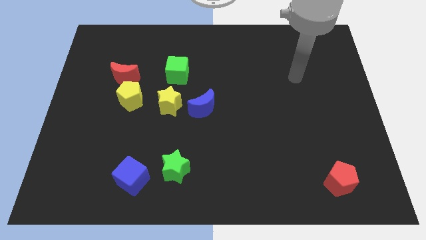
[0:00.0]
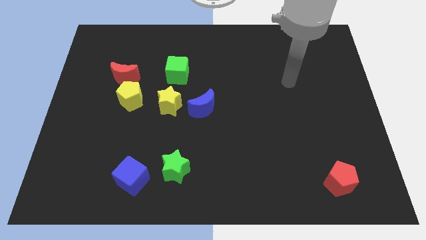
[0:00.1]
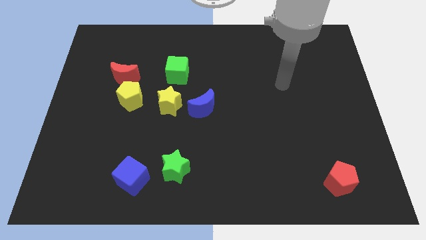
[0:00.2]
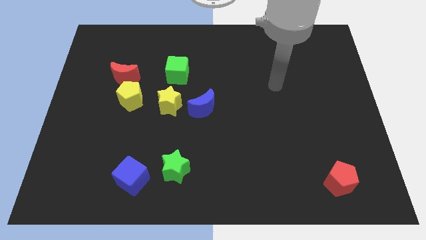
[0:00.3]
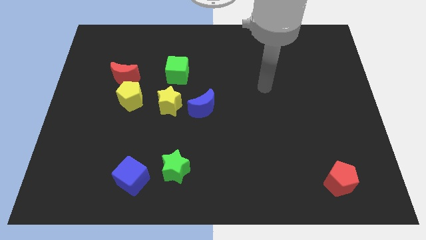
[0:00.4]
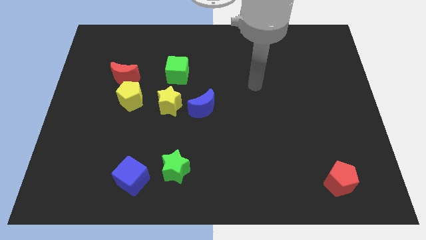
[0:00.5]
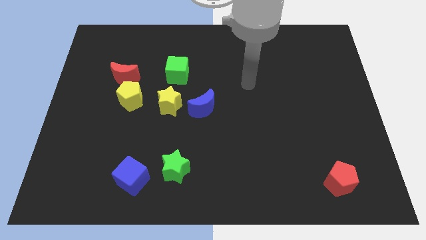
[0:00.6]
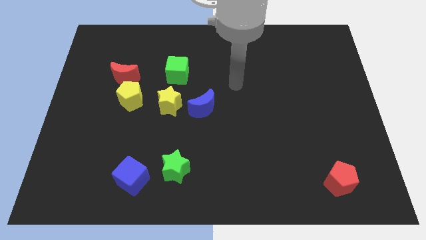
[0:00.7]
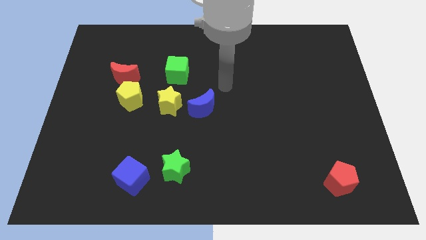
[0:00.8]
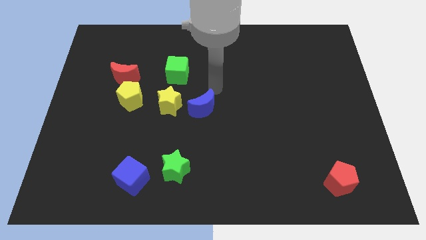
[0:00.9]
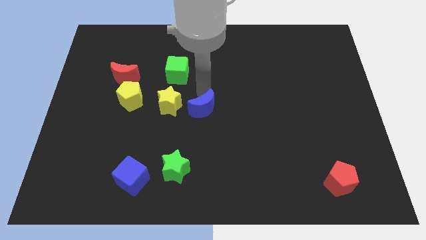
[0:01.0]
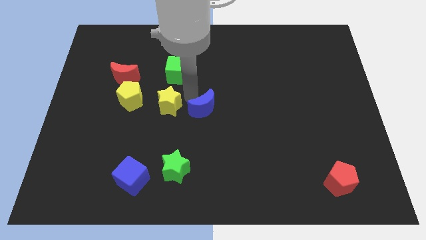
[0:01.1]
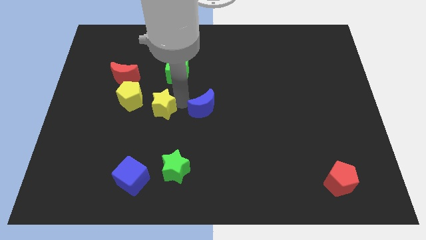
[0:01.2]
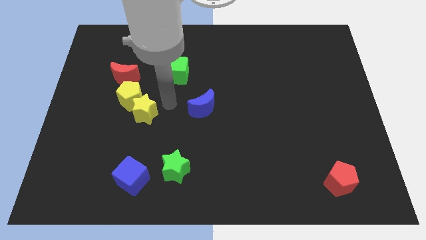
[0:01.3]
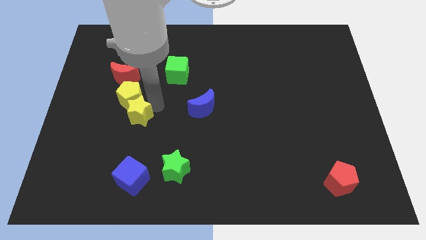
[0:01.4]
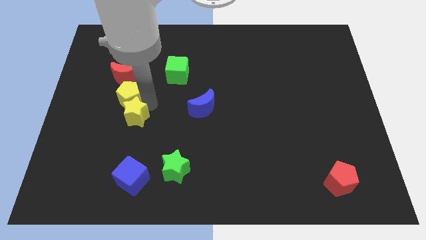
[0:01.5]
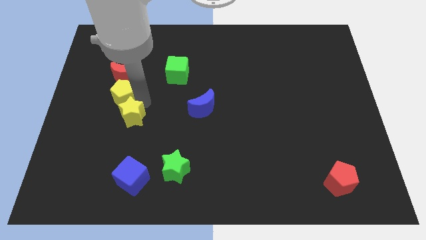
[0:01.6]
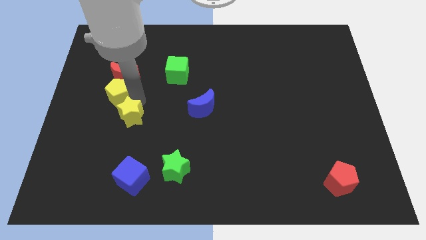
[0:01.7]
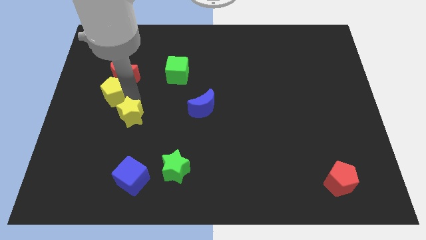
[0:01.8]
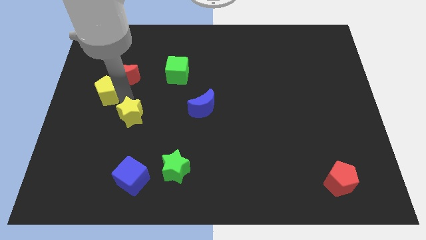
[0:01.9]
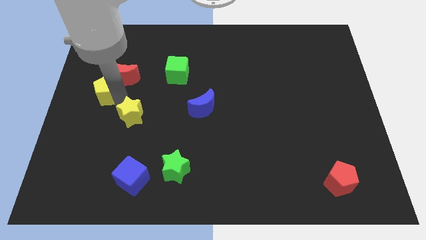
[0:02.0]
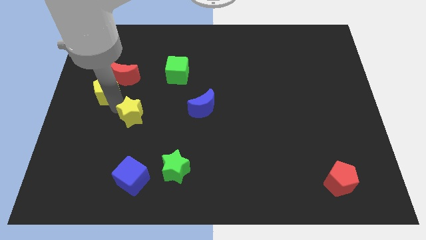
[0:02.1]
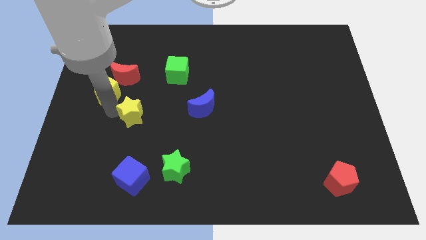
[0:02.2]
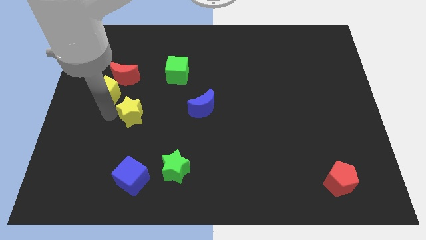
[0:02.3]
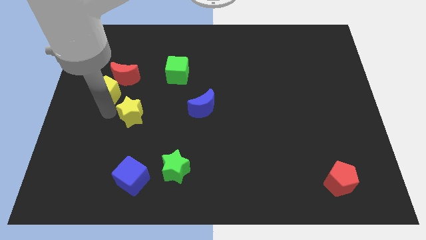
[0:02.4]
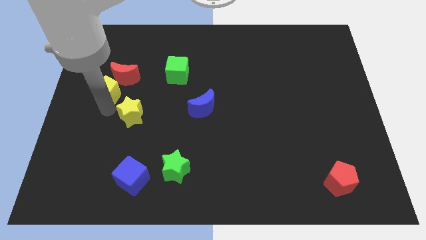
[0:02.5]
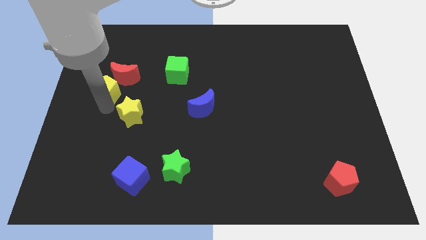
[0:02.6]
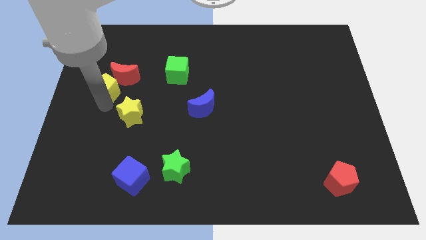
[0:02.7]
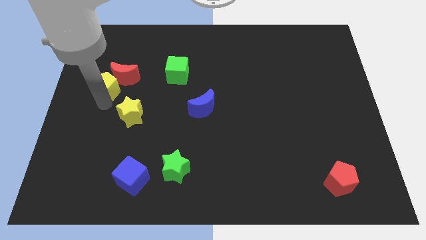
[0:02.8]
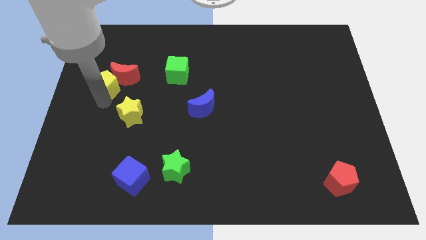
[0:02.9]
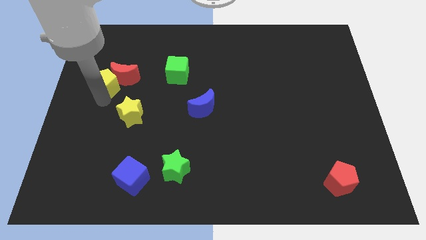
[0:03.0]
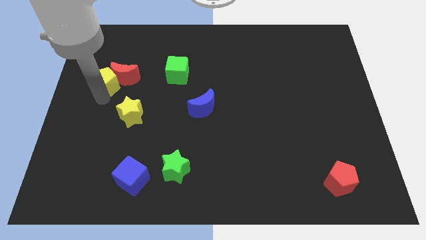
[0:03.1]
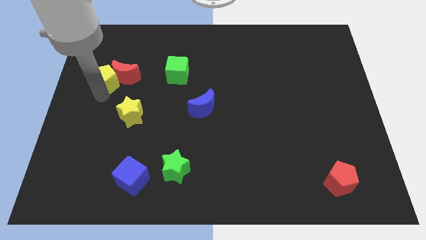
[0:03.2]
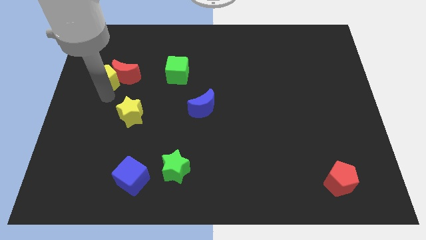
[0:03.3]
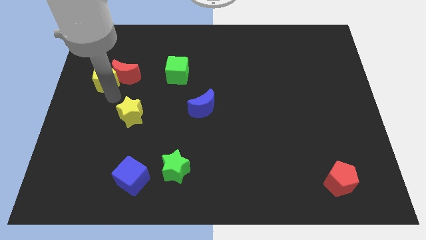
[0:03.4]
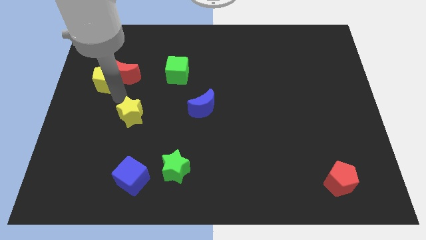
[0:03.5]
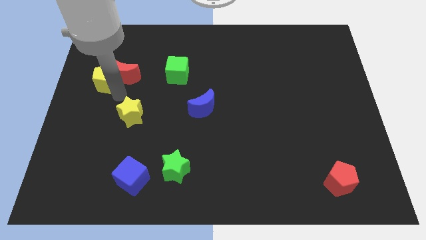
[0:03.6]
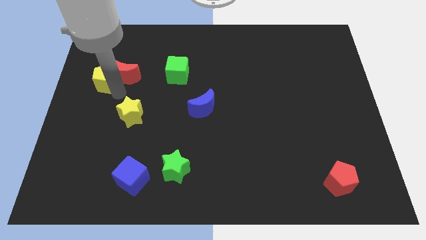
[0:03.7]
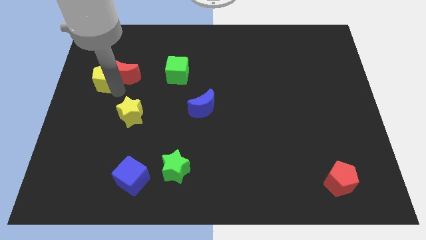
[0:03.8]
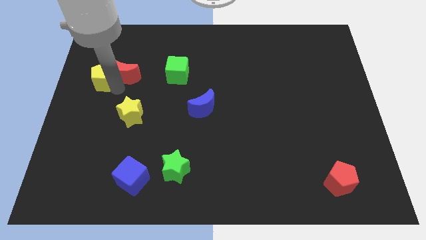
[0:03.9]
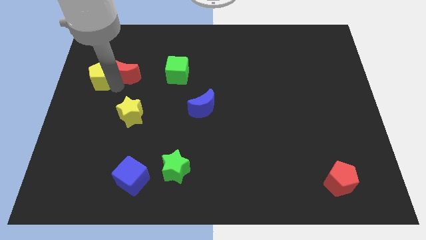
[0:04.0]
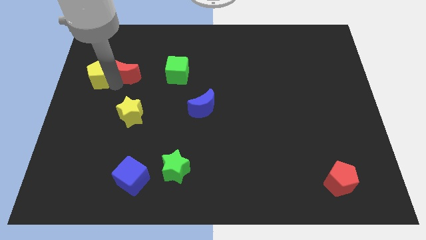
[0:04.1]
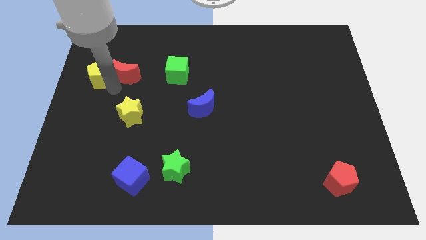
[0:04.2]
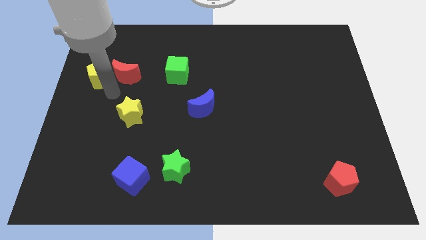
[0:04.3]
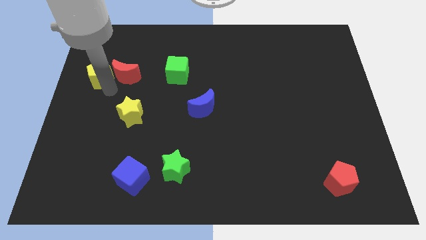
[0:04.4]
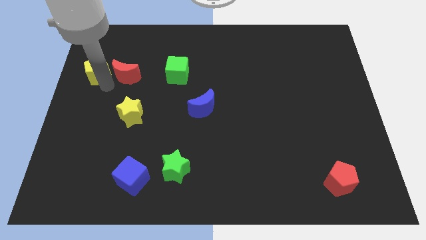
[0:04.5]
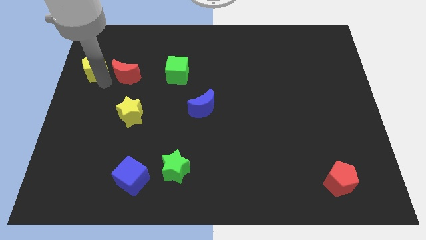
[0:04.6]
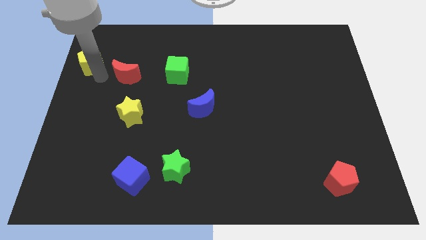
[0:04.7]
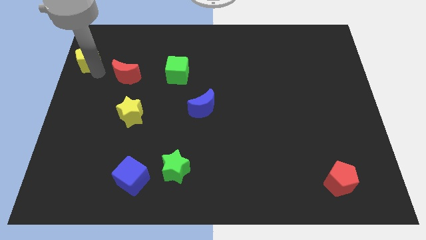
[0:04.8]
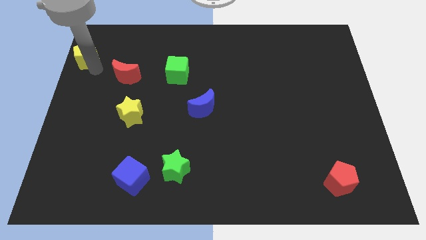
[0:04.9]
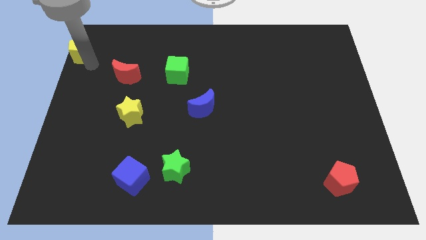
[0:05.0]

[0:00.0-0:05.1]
move the yellow pentagon to the top left corner

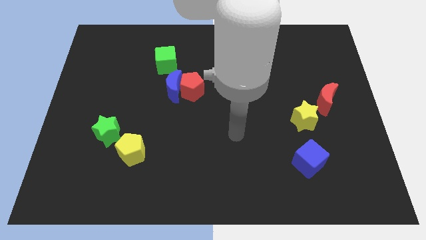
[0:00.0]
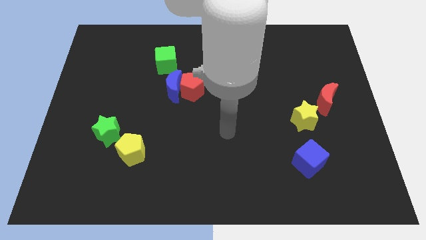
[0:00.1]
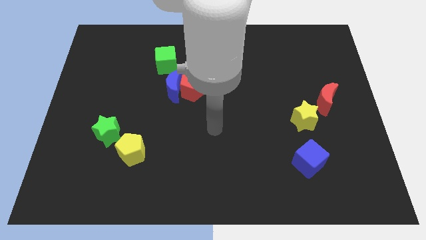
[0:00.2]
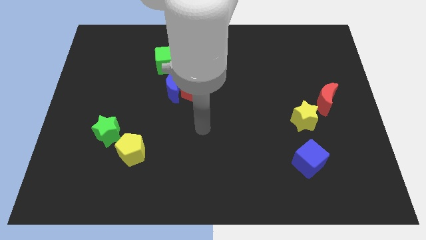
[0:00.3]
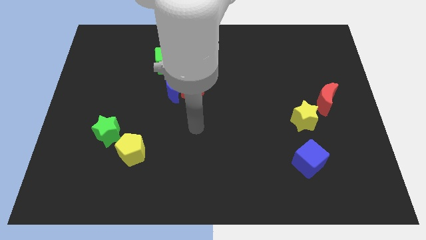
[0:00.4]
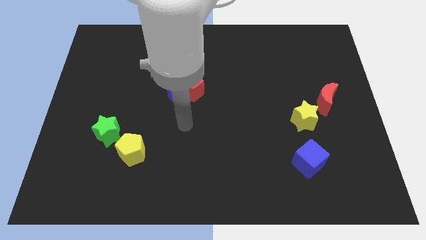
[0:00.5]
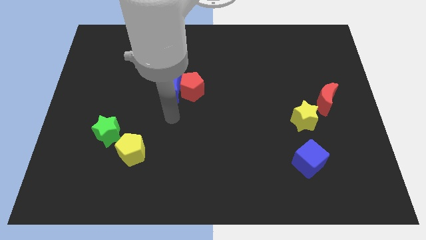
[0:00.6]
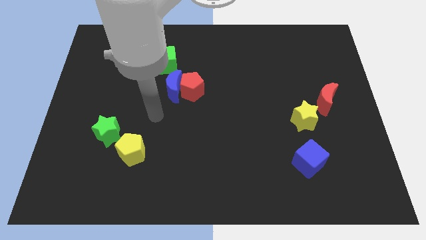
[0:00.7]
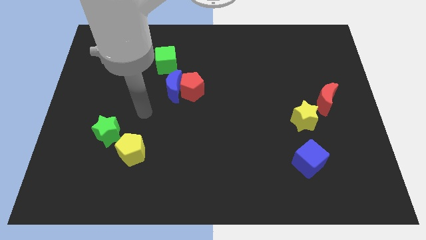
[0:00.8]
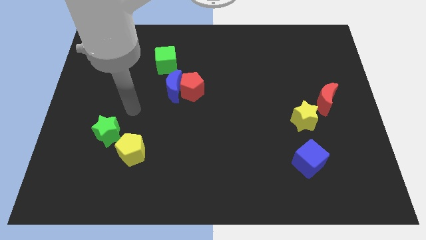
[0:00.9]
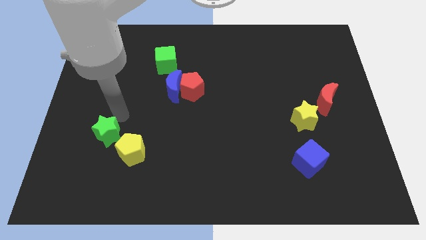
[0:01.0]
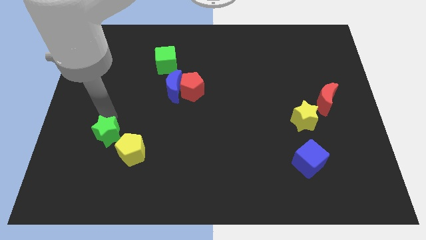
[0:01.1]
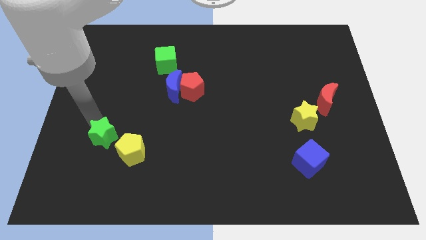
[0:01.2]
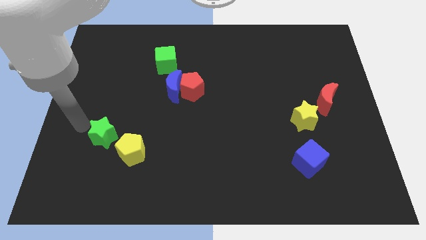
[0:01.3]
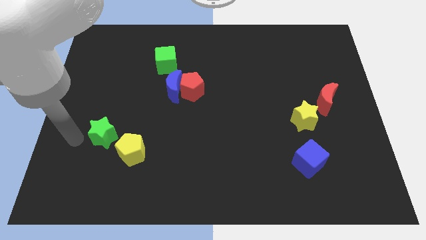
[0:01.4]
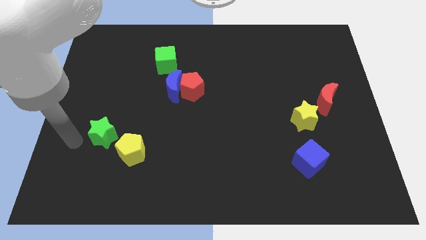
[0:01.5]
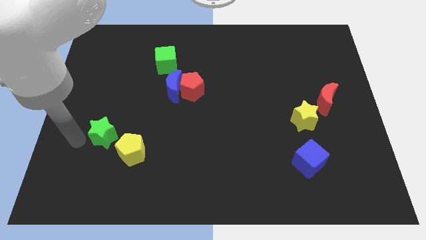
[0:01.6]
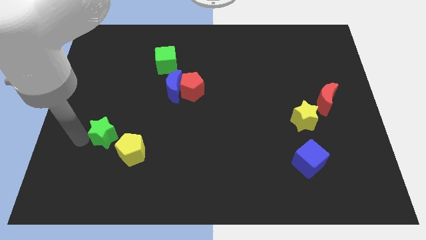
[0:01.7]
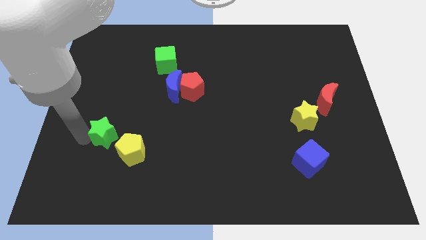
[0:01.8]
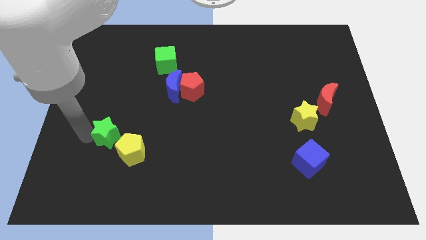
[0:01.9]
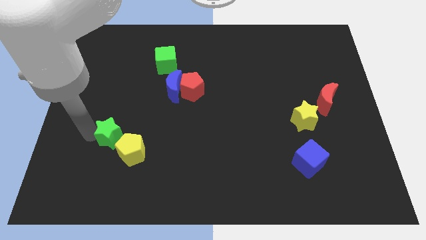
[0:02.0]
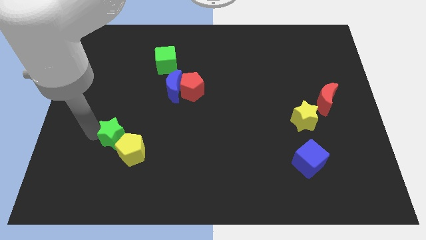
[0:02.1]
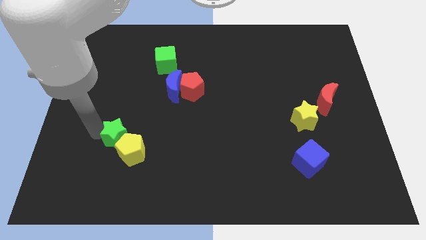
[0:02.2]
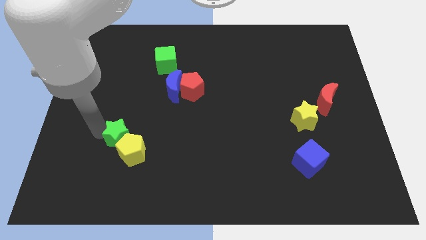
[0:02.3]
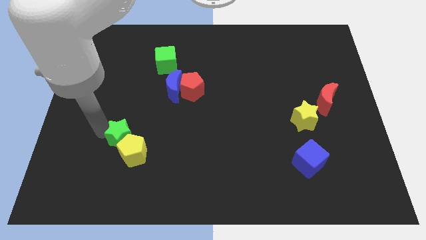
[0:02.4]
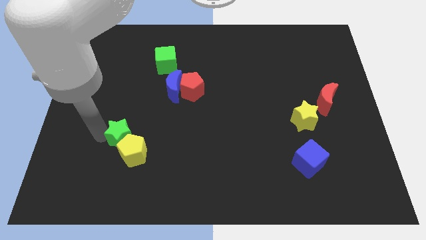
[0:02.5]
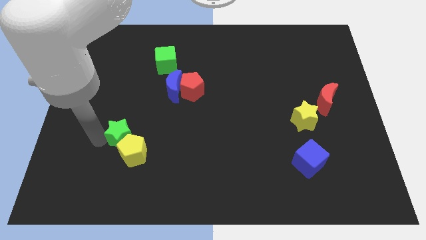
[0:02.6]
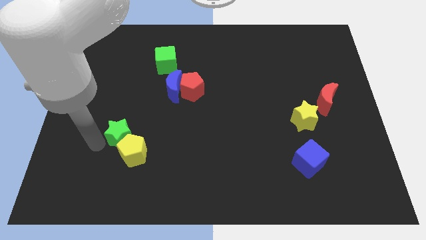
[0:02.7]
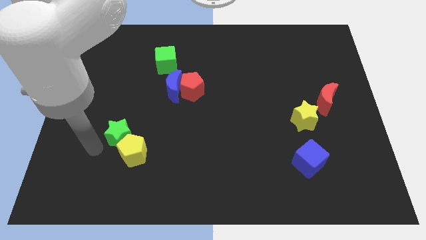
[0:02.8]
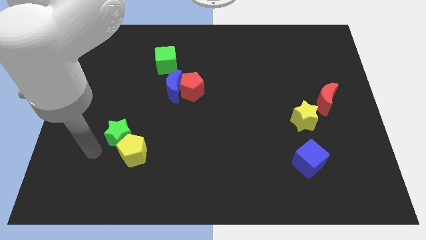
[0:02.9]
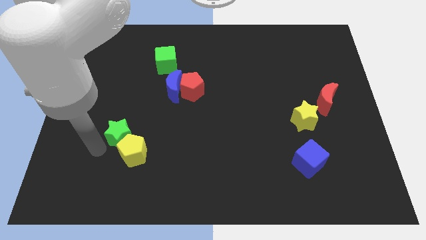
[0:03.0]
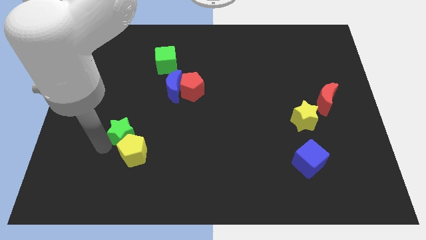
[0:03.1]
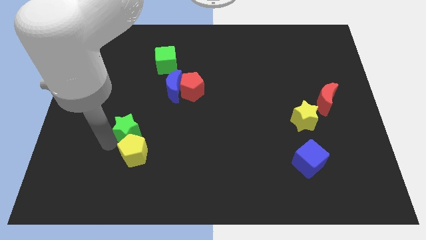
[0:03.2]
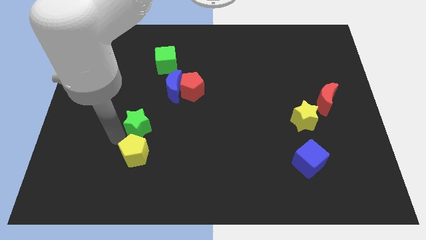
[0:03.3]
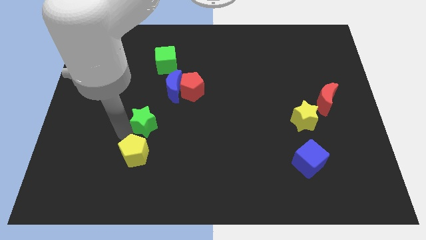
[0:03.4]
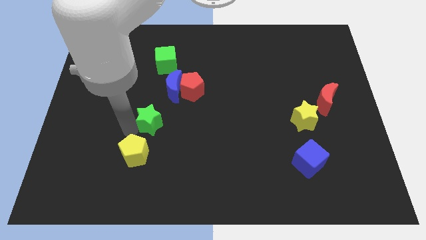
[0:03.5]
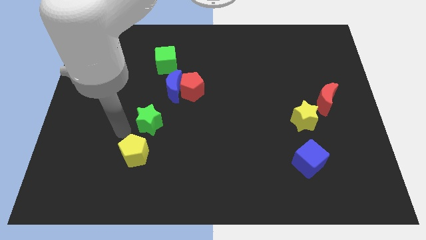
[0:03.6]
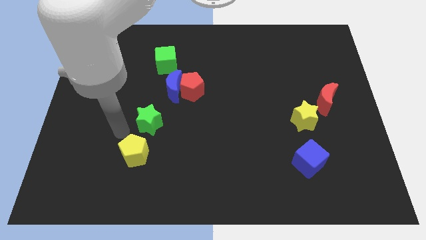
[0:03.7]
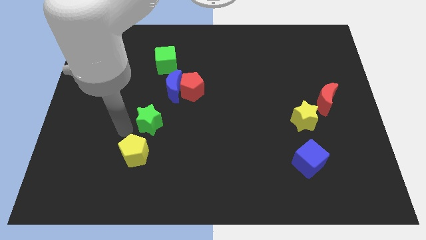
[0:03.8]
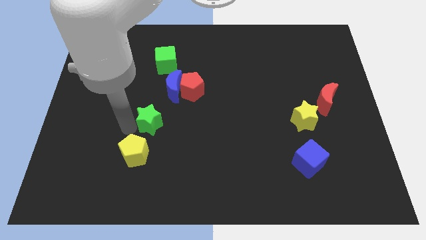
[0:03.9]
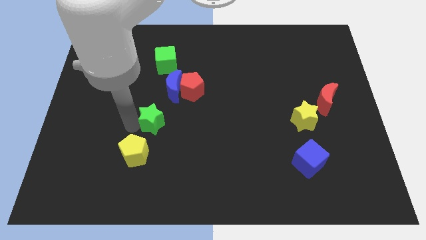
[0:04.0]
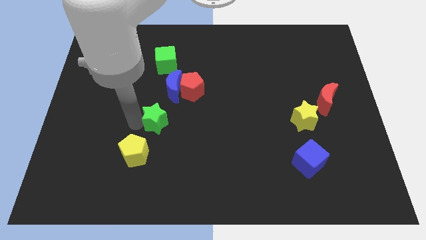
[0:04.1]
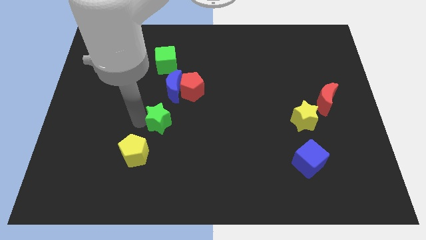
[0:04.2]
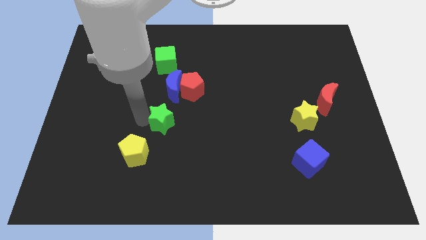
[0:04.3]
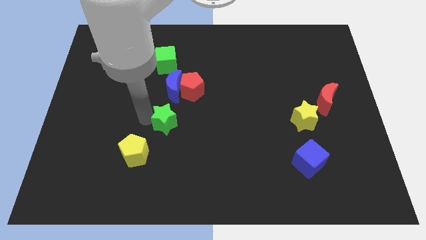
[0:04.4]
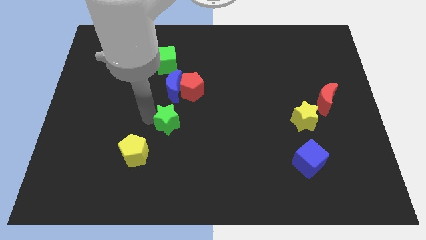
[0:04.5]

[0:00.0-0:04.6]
slide the green star to the middle
